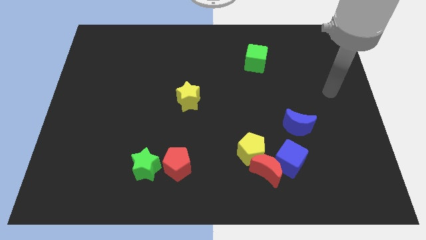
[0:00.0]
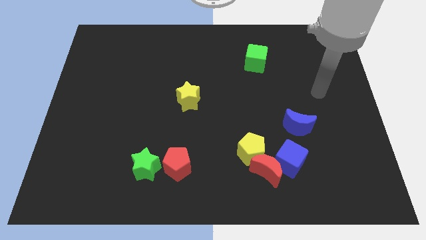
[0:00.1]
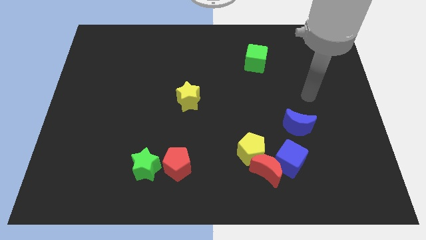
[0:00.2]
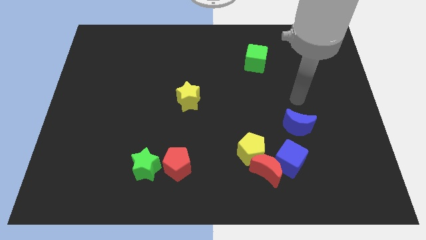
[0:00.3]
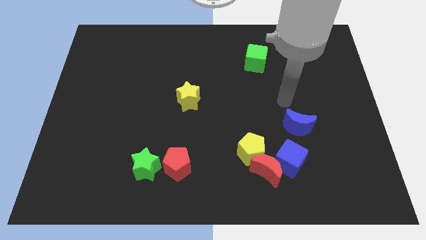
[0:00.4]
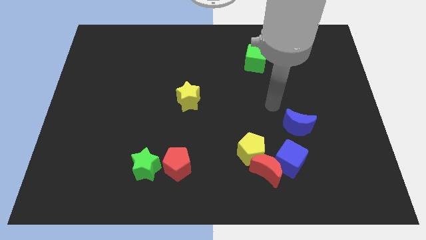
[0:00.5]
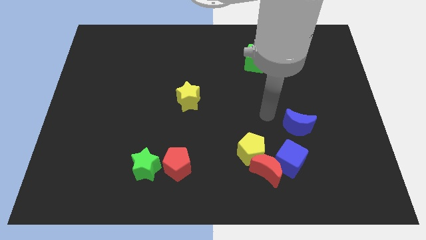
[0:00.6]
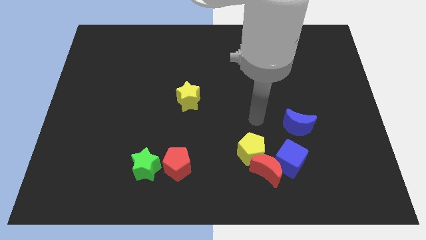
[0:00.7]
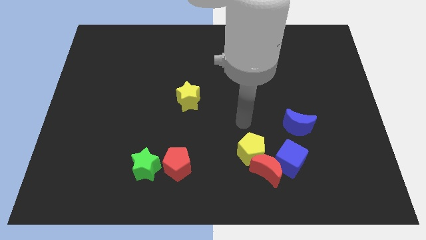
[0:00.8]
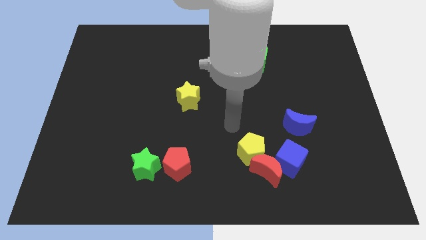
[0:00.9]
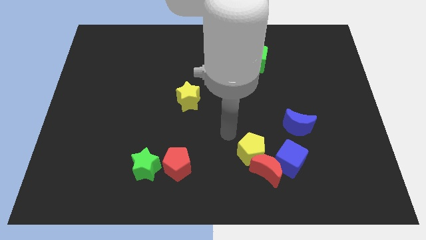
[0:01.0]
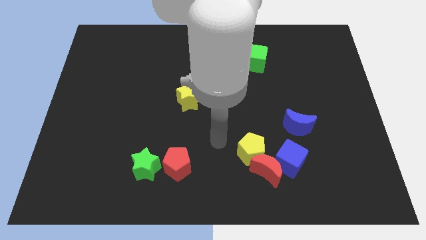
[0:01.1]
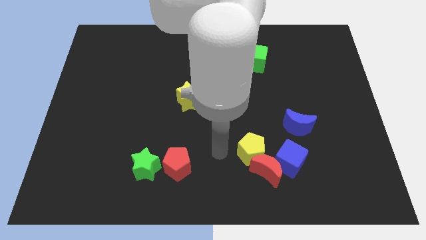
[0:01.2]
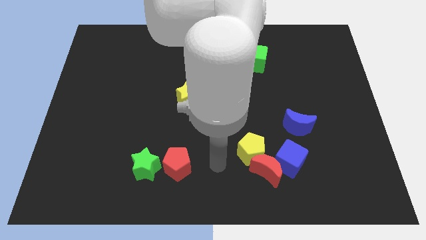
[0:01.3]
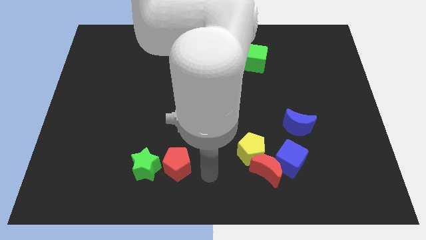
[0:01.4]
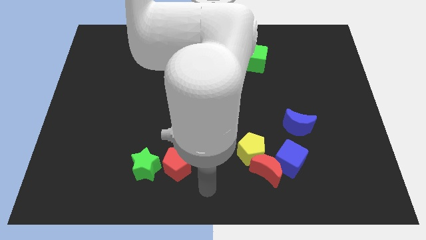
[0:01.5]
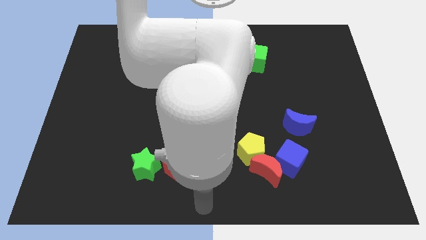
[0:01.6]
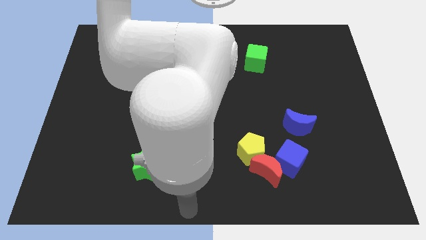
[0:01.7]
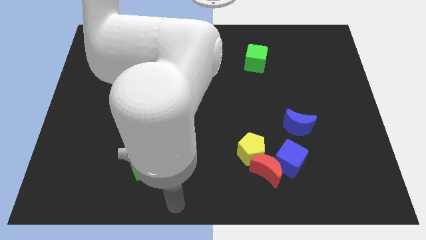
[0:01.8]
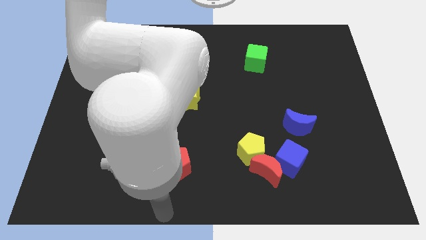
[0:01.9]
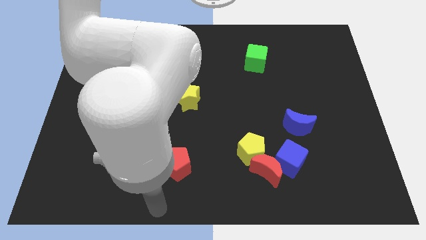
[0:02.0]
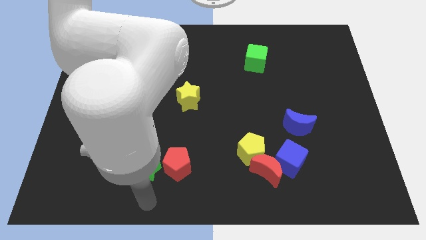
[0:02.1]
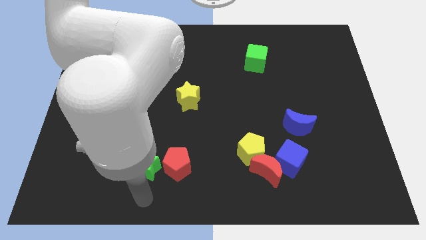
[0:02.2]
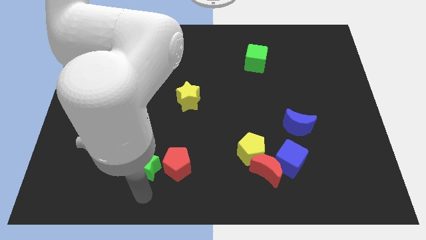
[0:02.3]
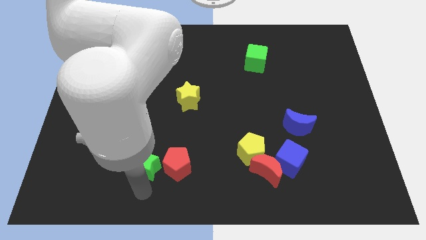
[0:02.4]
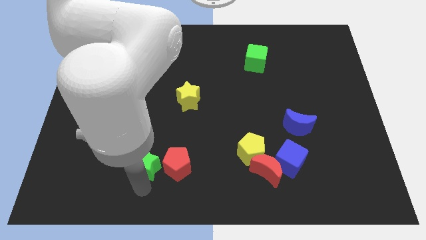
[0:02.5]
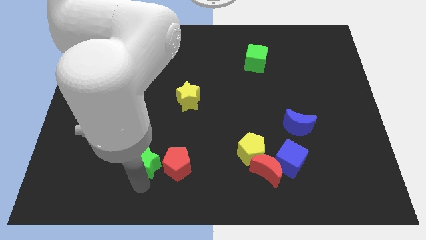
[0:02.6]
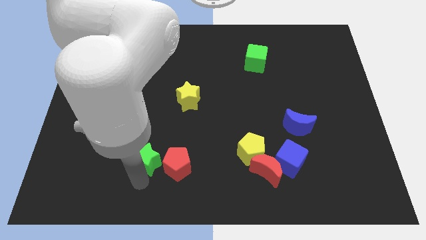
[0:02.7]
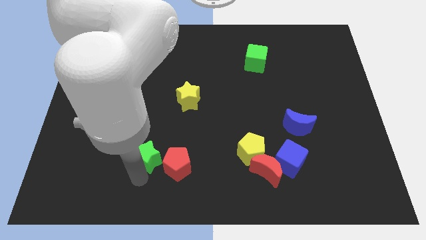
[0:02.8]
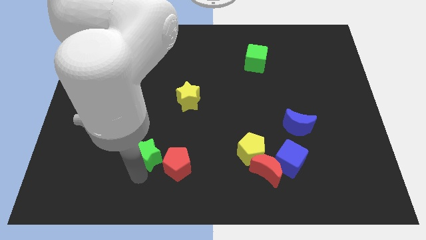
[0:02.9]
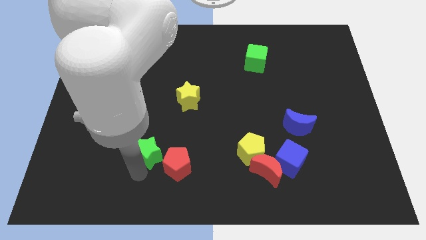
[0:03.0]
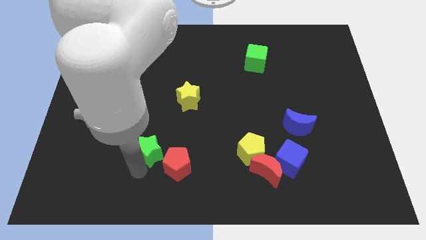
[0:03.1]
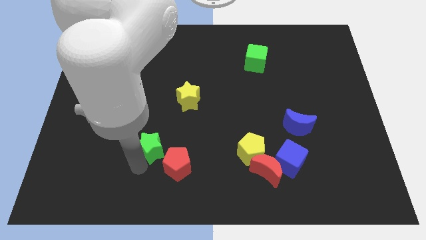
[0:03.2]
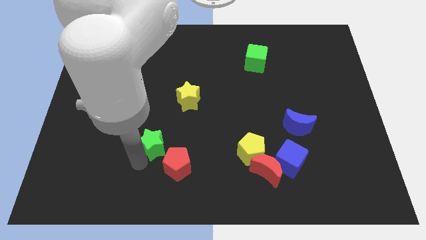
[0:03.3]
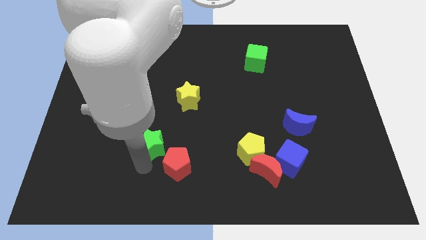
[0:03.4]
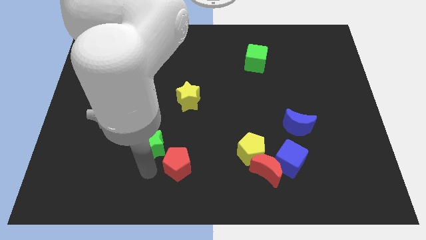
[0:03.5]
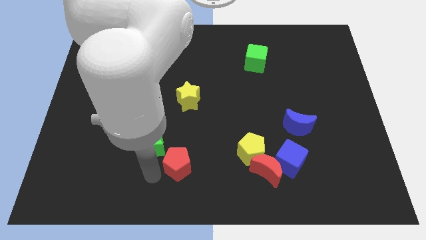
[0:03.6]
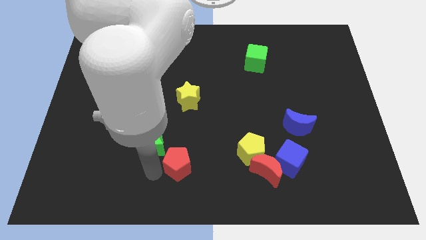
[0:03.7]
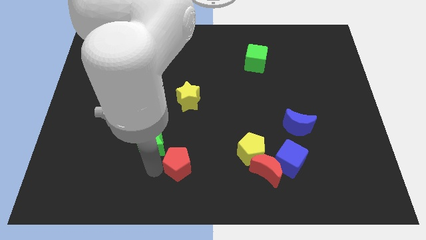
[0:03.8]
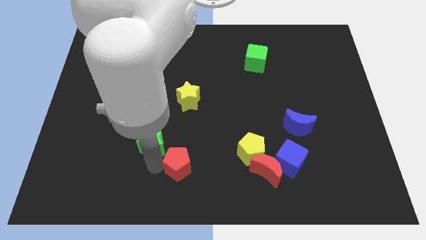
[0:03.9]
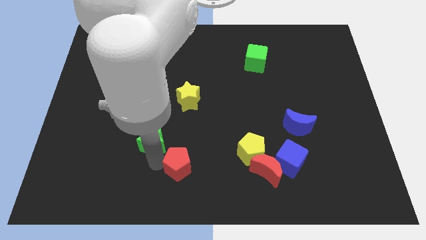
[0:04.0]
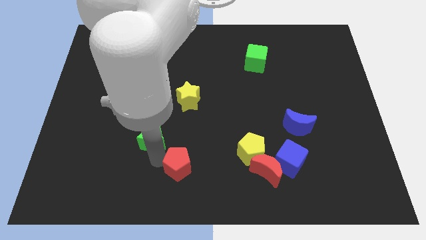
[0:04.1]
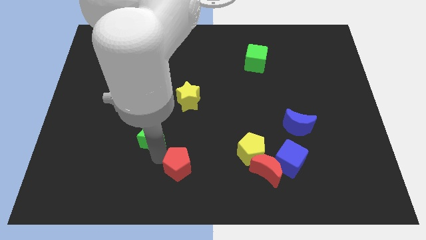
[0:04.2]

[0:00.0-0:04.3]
move the green star up somewhat

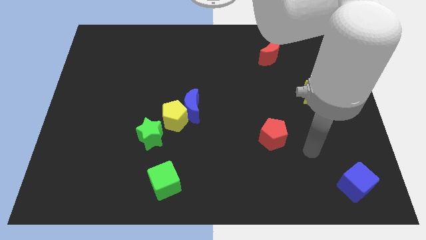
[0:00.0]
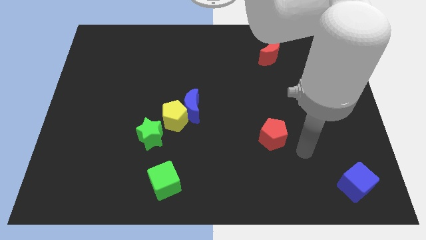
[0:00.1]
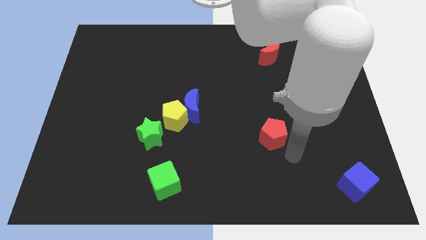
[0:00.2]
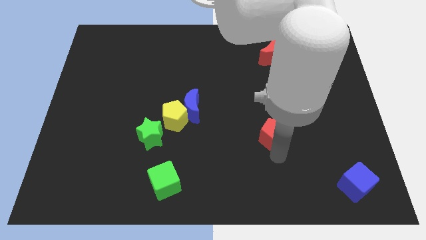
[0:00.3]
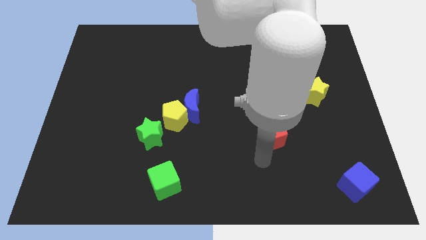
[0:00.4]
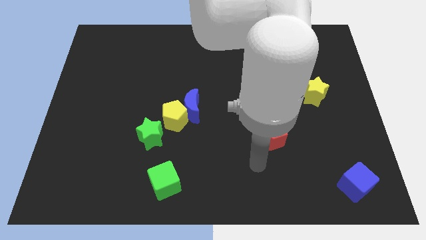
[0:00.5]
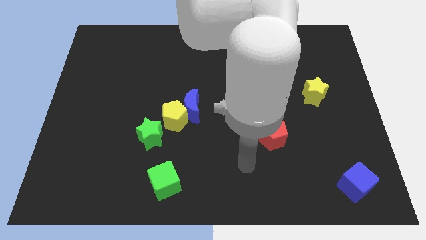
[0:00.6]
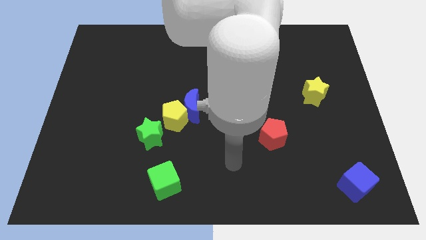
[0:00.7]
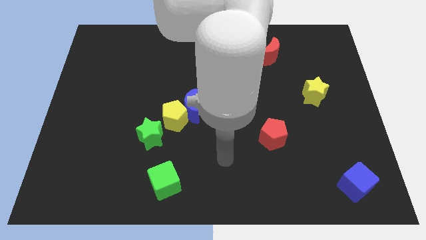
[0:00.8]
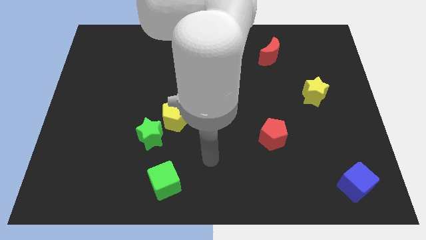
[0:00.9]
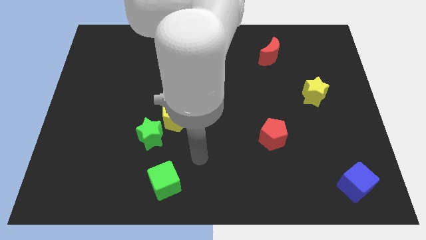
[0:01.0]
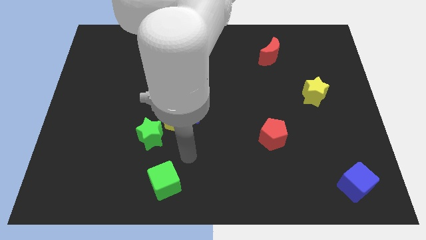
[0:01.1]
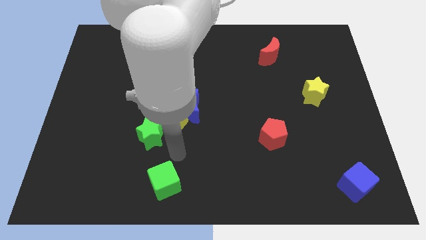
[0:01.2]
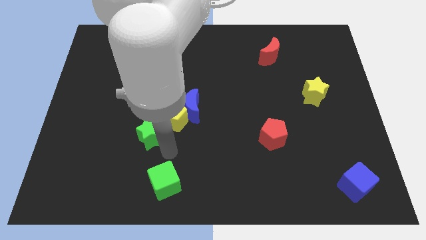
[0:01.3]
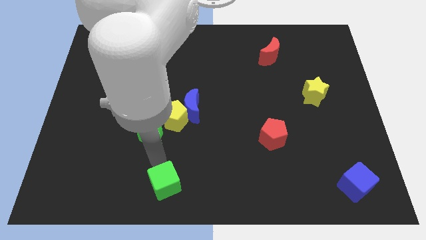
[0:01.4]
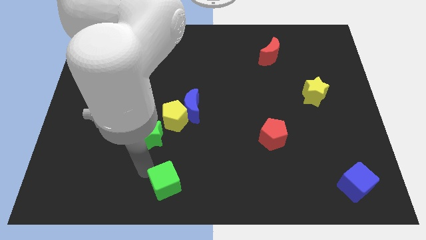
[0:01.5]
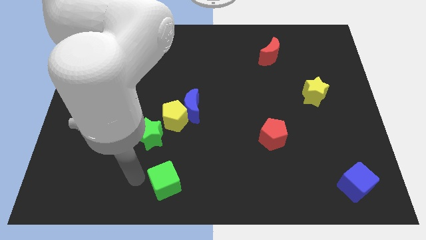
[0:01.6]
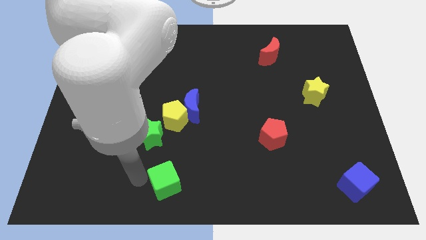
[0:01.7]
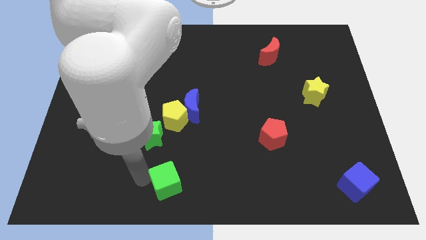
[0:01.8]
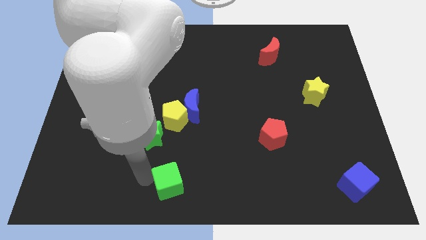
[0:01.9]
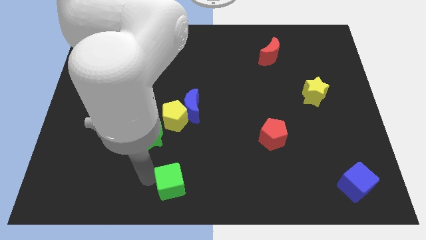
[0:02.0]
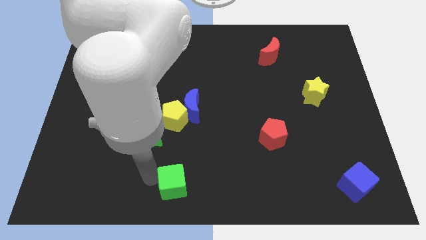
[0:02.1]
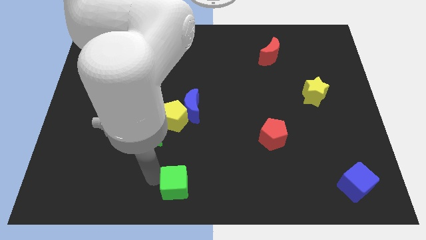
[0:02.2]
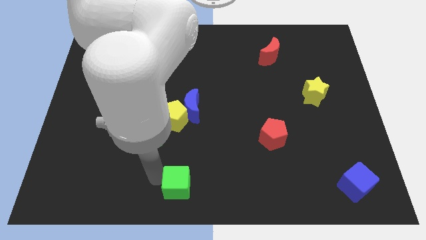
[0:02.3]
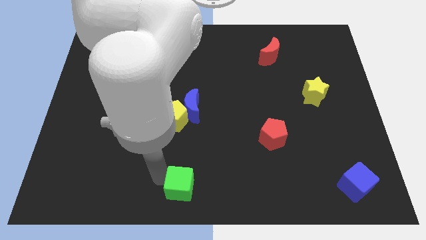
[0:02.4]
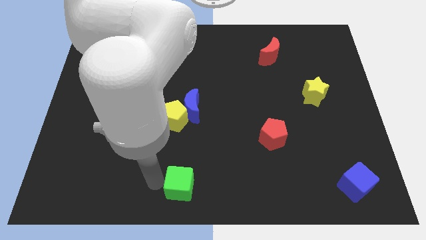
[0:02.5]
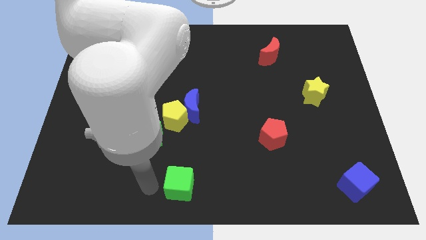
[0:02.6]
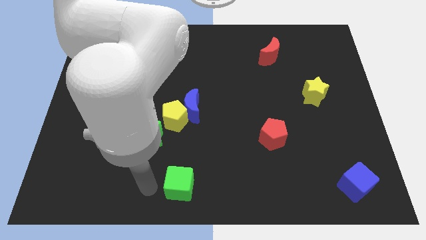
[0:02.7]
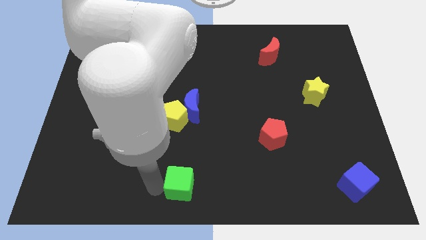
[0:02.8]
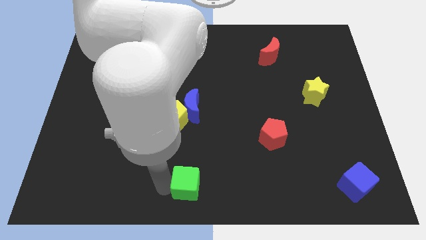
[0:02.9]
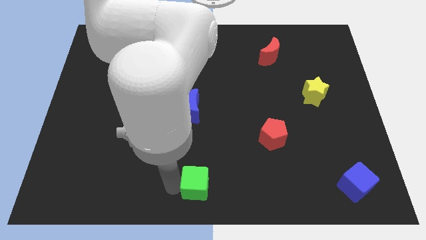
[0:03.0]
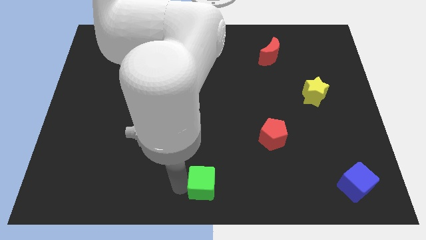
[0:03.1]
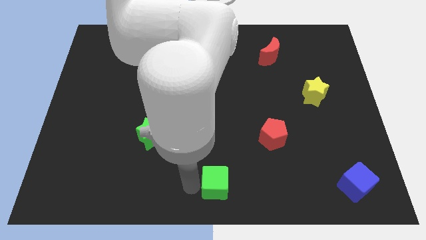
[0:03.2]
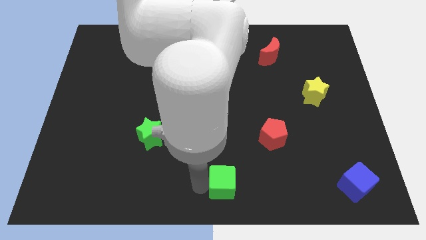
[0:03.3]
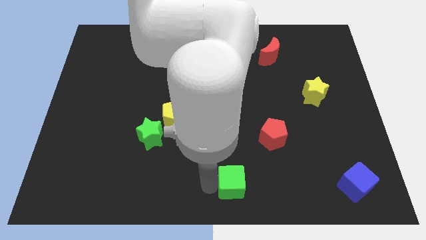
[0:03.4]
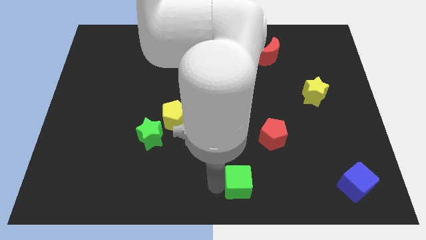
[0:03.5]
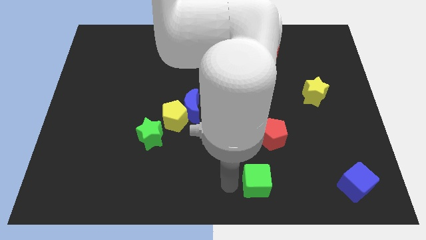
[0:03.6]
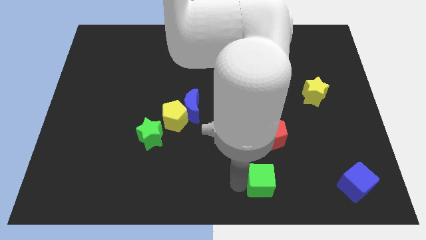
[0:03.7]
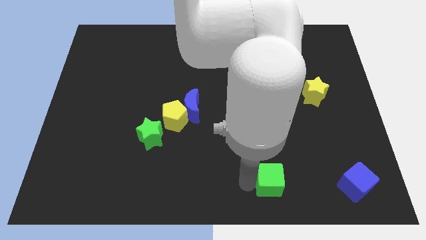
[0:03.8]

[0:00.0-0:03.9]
move the green cube right
